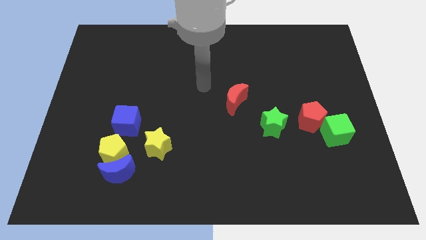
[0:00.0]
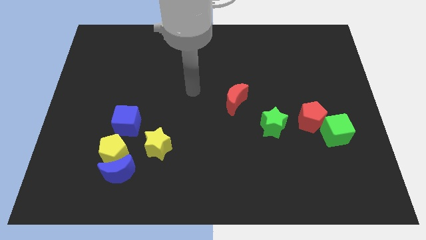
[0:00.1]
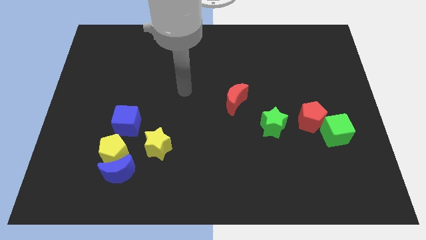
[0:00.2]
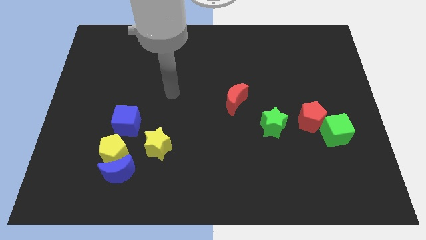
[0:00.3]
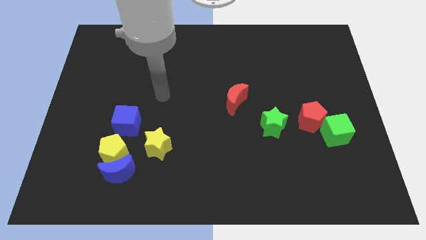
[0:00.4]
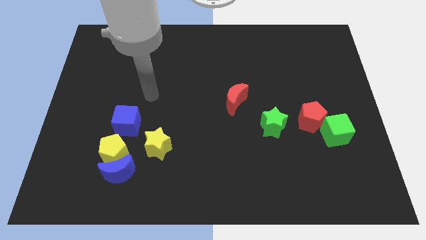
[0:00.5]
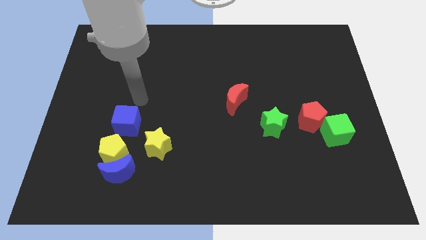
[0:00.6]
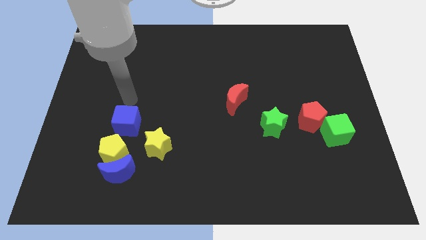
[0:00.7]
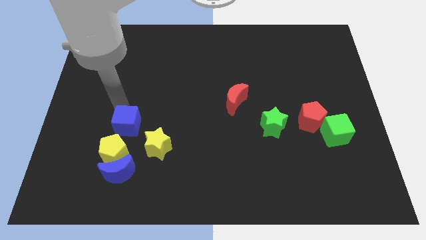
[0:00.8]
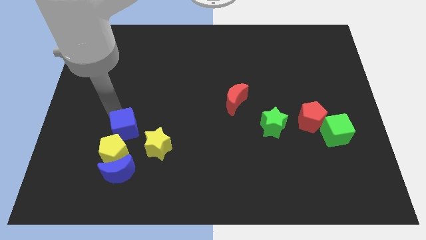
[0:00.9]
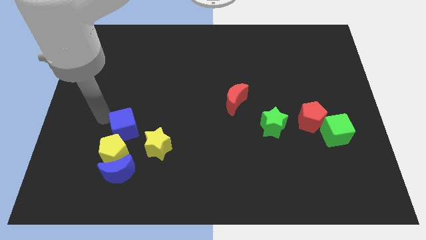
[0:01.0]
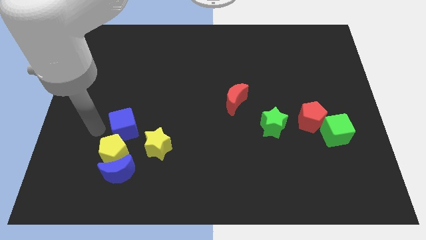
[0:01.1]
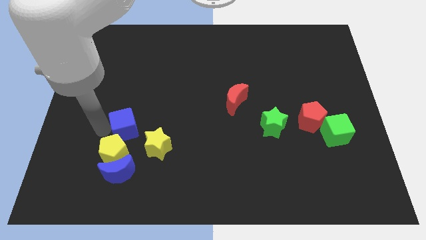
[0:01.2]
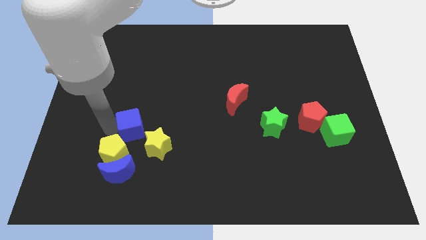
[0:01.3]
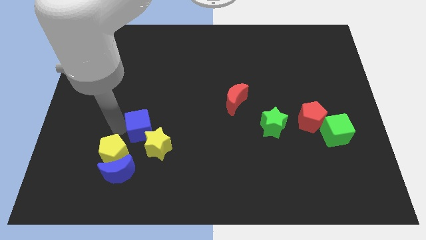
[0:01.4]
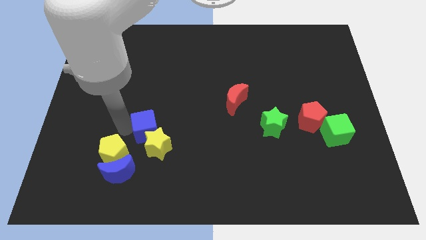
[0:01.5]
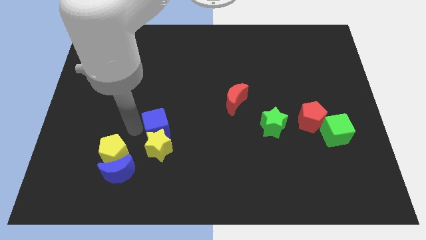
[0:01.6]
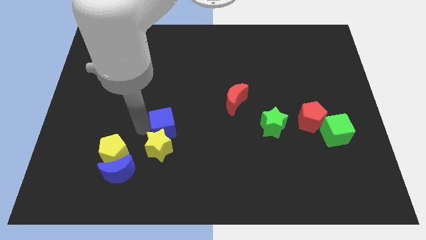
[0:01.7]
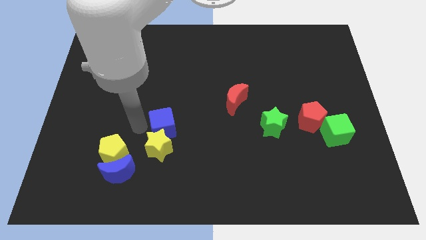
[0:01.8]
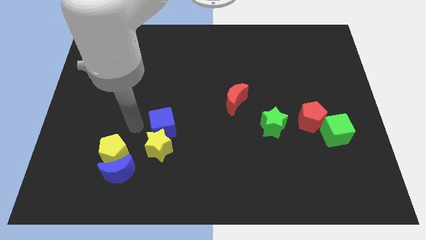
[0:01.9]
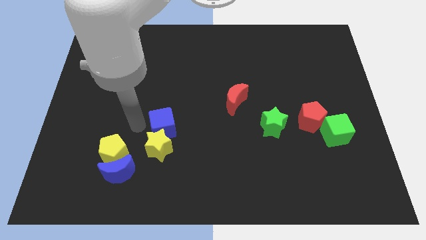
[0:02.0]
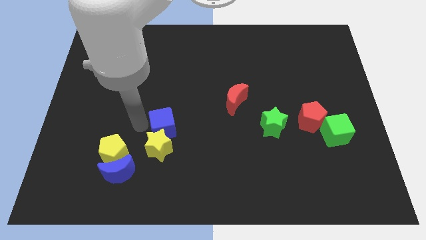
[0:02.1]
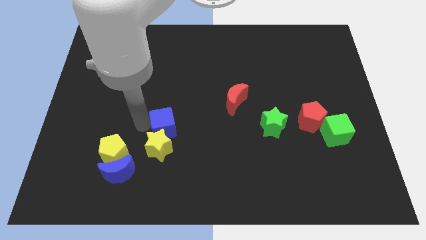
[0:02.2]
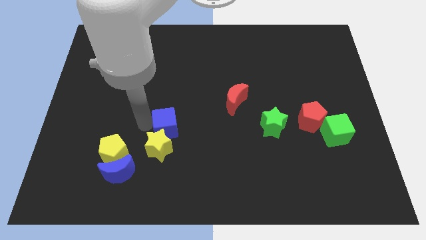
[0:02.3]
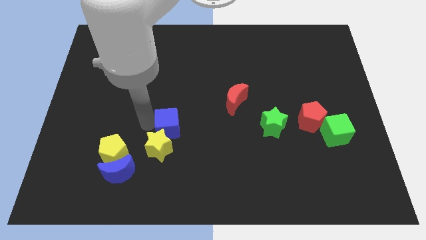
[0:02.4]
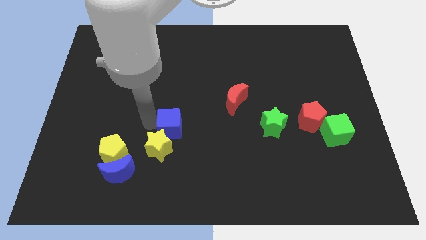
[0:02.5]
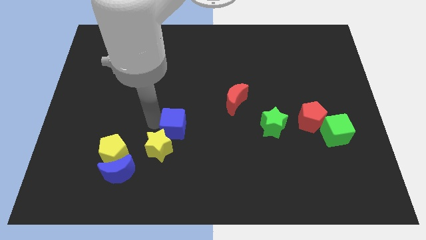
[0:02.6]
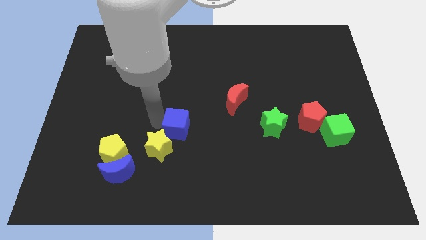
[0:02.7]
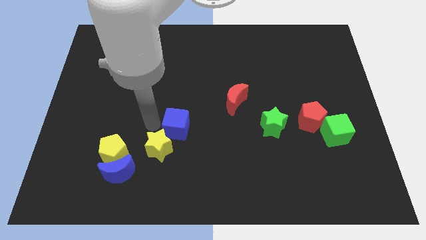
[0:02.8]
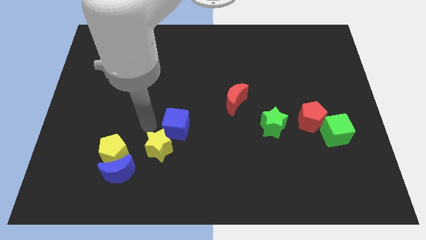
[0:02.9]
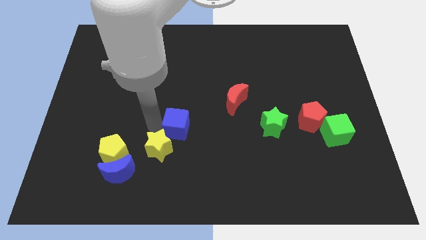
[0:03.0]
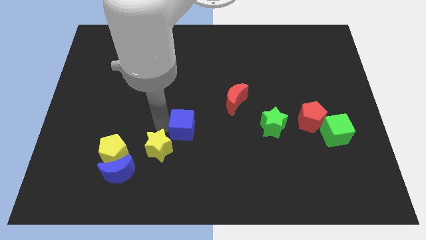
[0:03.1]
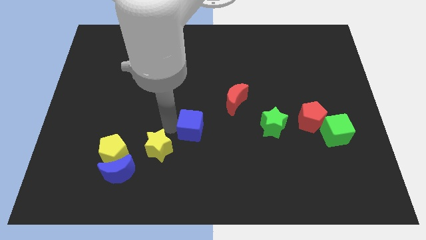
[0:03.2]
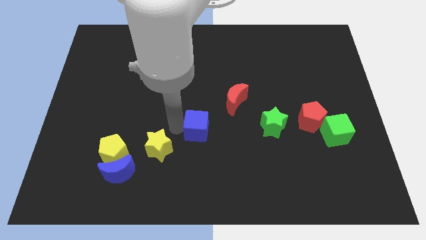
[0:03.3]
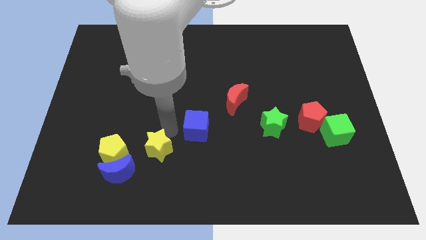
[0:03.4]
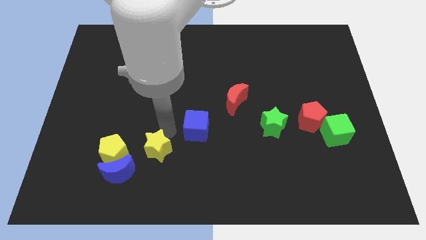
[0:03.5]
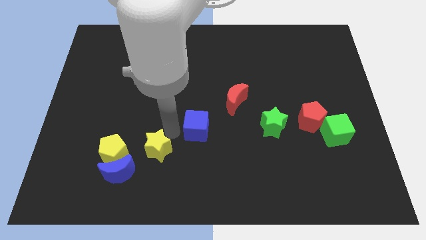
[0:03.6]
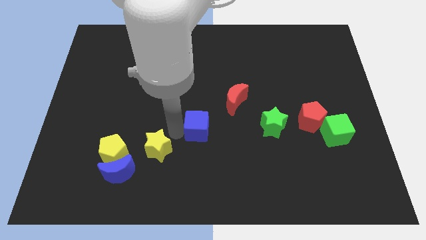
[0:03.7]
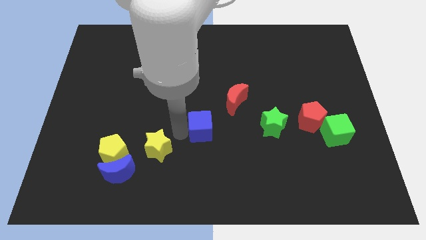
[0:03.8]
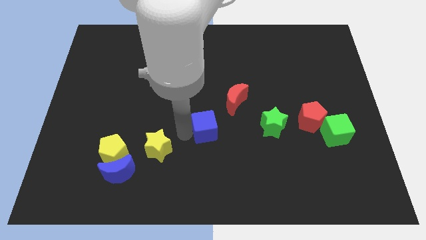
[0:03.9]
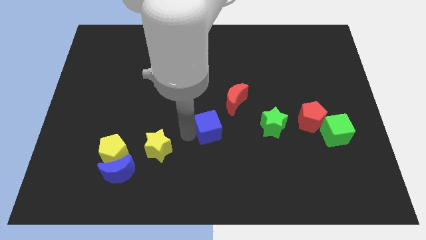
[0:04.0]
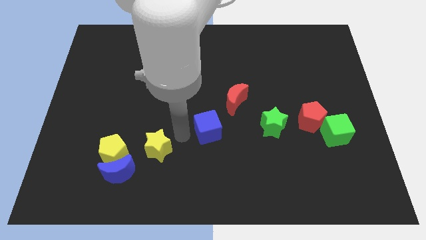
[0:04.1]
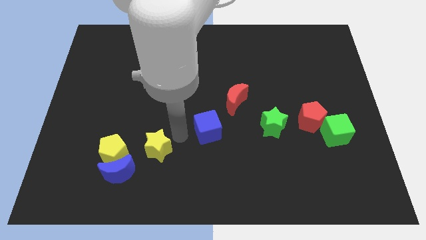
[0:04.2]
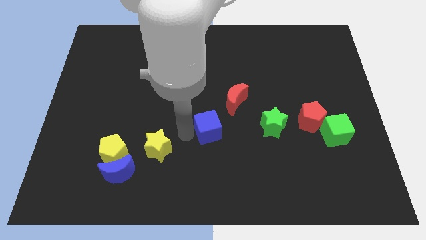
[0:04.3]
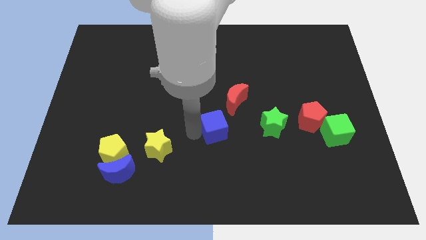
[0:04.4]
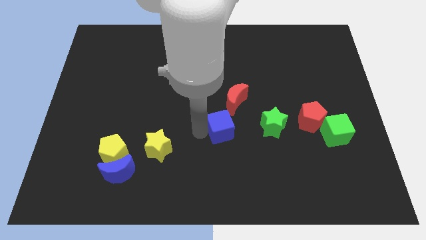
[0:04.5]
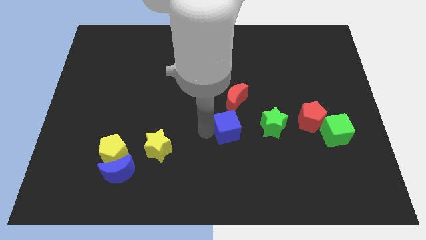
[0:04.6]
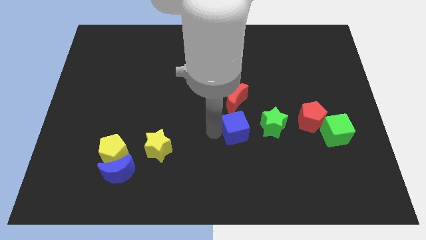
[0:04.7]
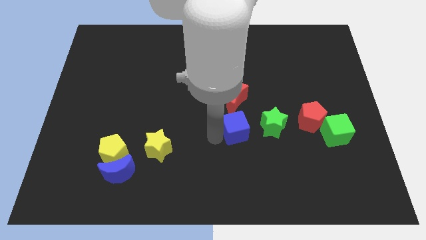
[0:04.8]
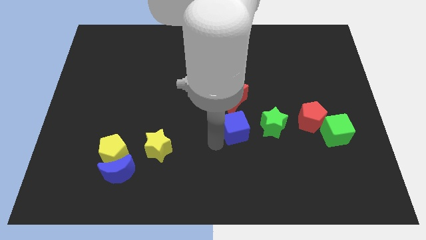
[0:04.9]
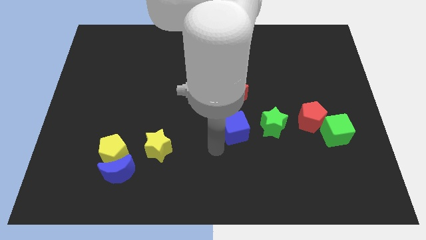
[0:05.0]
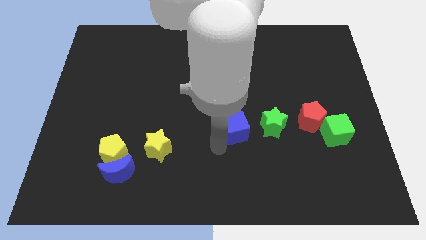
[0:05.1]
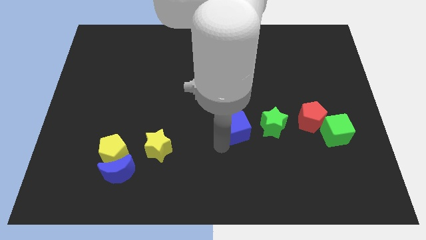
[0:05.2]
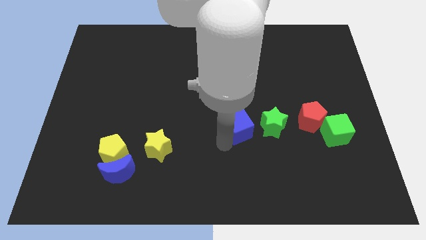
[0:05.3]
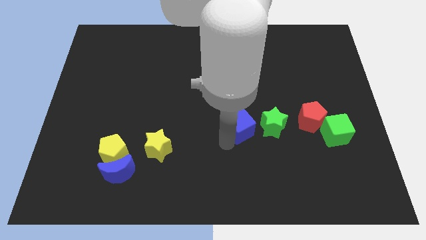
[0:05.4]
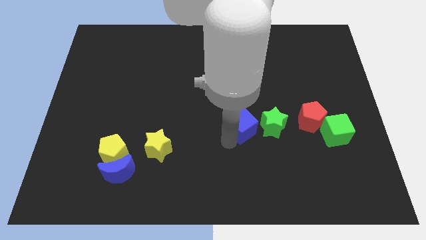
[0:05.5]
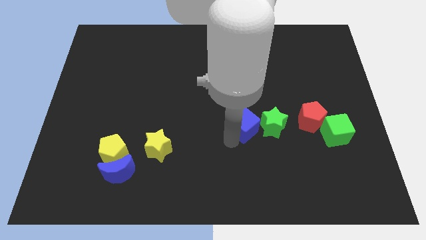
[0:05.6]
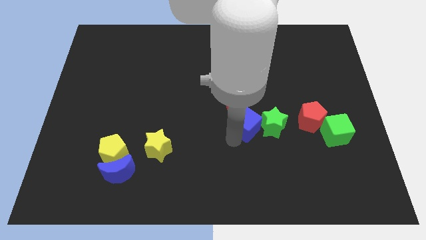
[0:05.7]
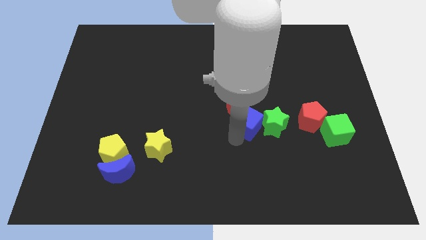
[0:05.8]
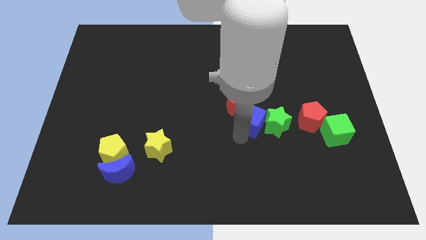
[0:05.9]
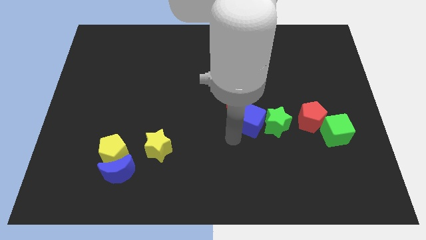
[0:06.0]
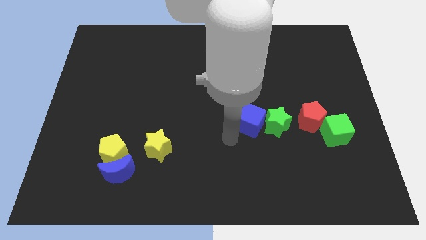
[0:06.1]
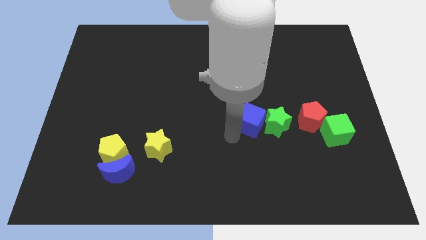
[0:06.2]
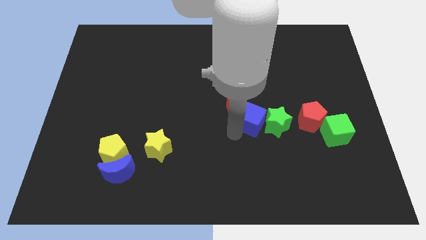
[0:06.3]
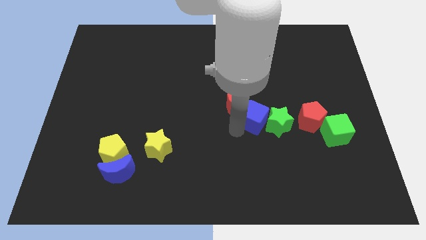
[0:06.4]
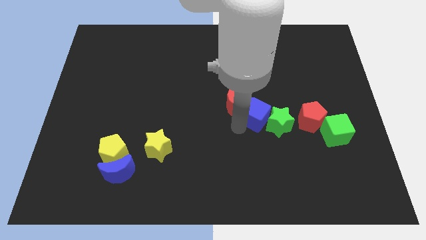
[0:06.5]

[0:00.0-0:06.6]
move the blue cube to the right of the red moon

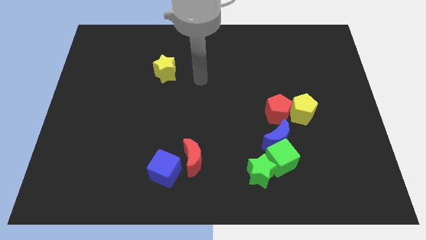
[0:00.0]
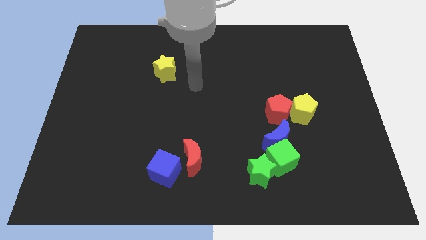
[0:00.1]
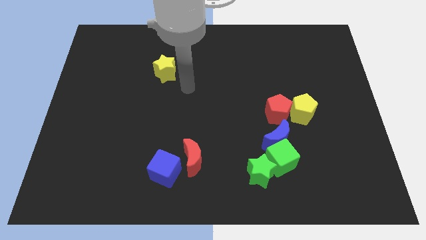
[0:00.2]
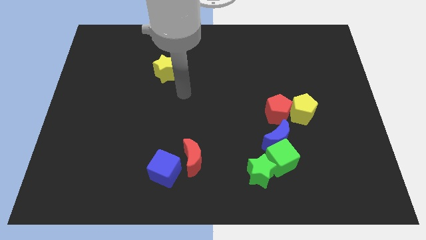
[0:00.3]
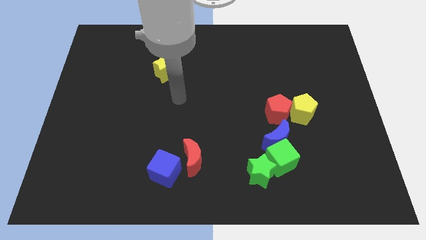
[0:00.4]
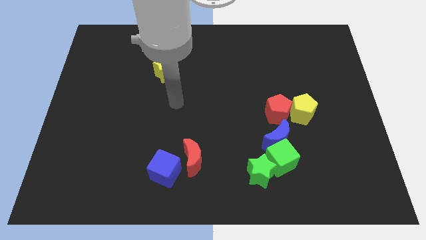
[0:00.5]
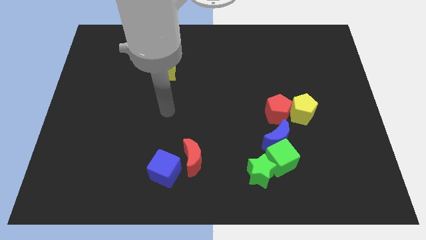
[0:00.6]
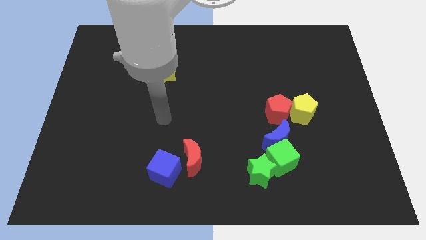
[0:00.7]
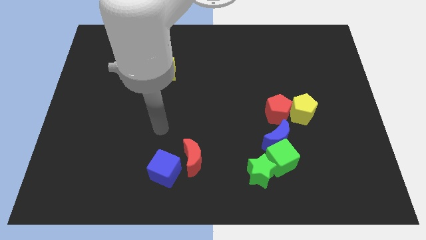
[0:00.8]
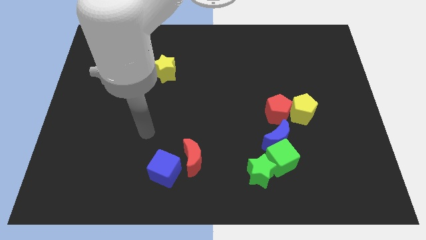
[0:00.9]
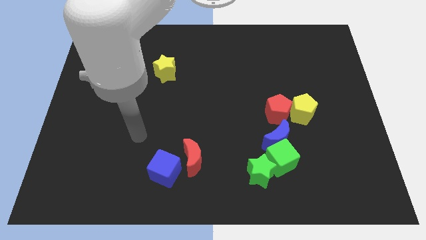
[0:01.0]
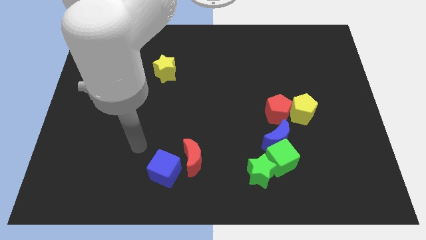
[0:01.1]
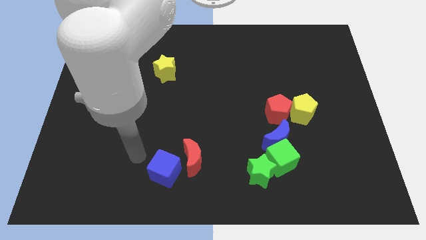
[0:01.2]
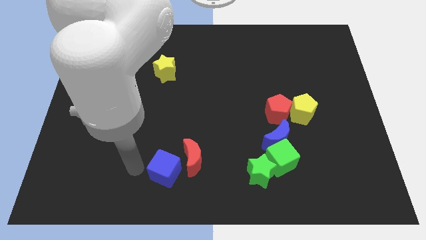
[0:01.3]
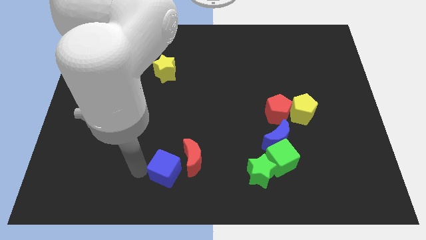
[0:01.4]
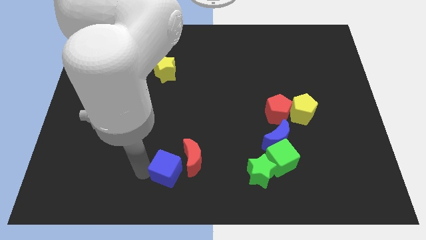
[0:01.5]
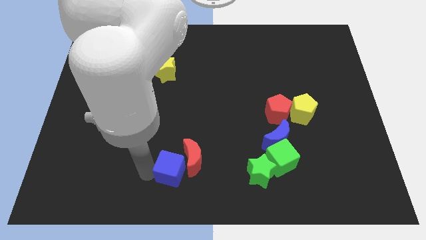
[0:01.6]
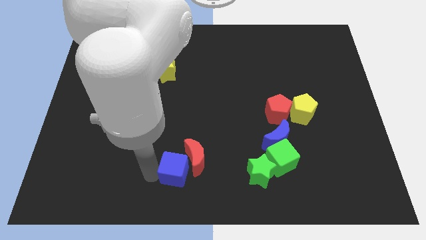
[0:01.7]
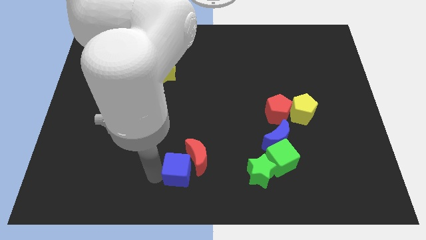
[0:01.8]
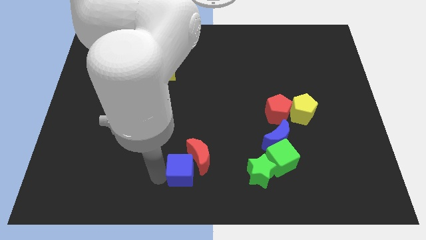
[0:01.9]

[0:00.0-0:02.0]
push the blue cube just left of the green star
